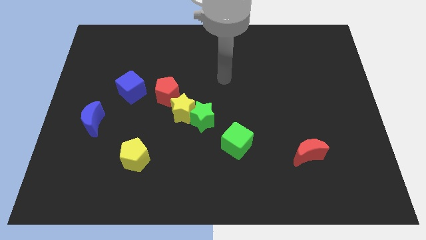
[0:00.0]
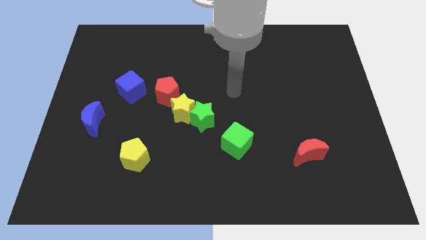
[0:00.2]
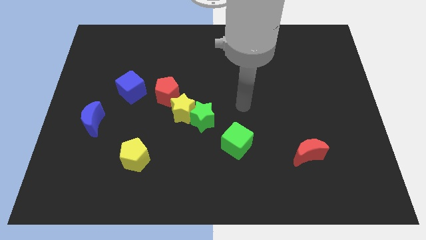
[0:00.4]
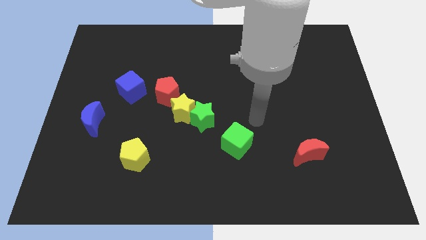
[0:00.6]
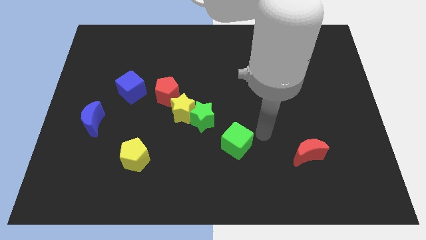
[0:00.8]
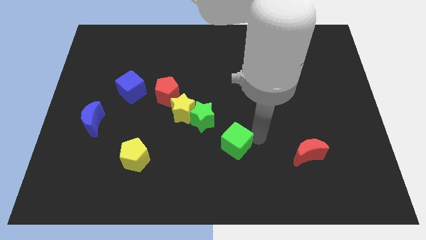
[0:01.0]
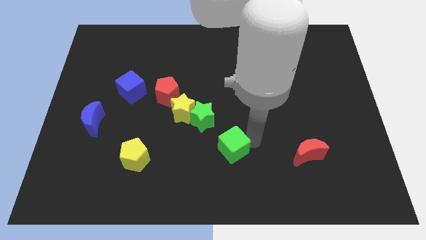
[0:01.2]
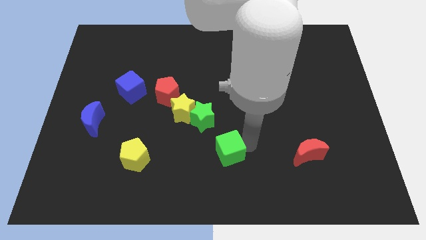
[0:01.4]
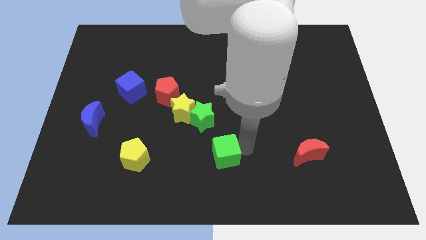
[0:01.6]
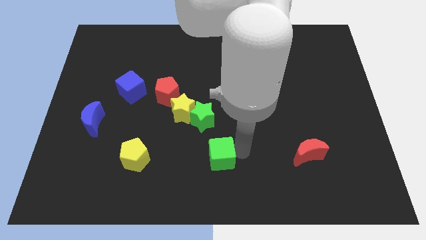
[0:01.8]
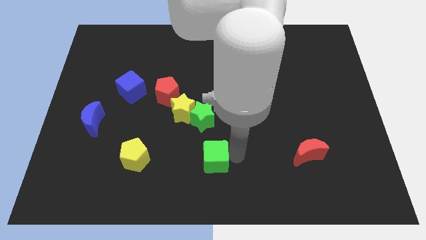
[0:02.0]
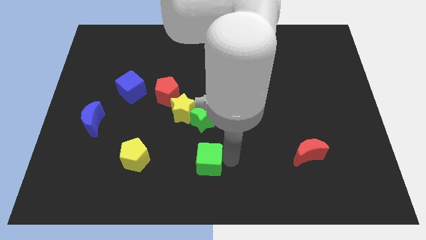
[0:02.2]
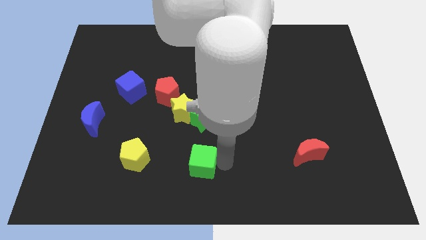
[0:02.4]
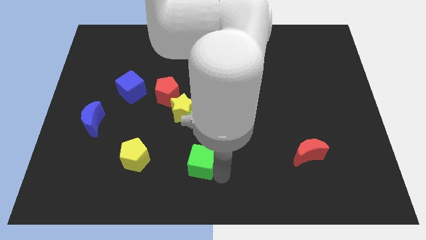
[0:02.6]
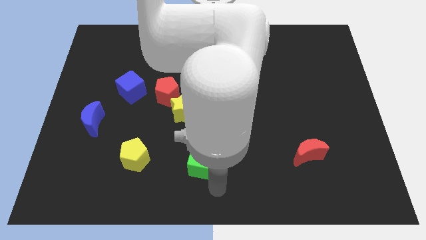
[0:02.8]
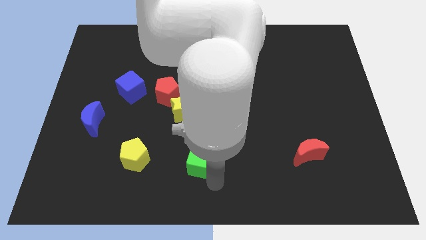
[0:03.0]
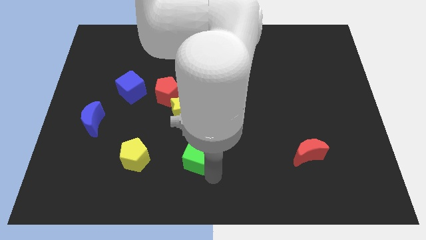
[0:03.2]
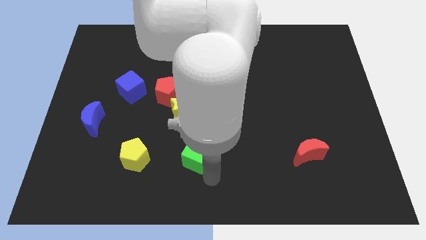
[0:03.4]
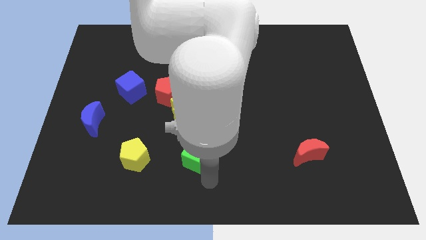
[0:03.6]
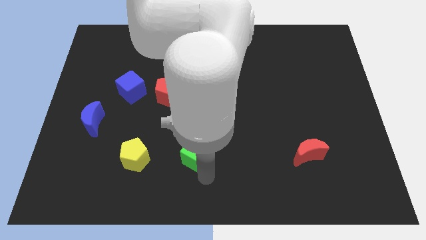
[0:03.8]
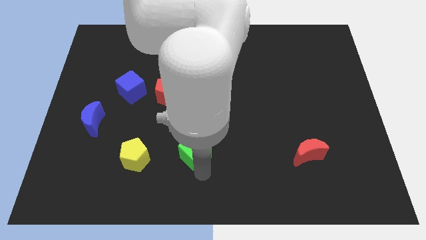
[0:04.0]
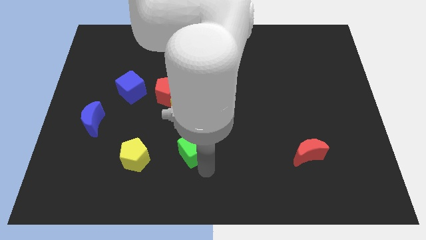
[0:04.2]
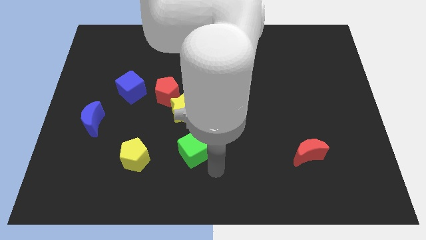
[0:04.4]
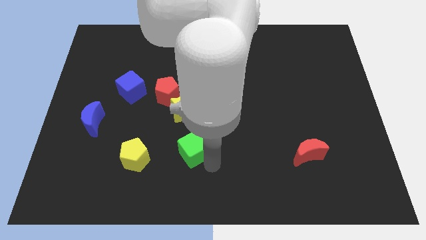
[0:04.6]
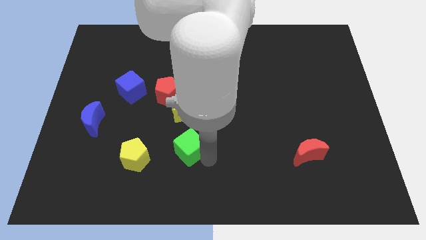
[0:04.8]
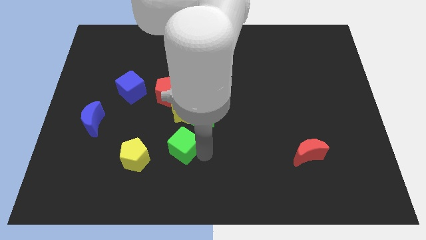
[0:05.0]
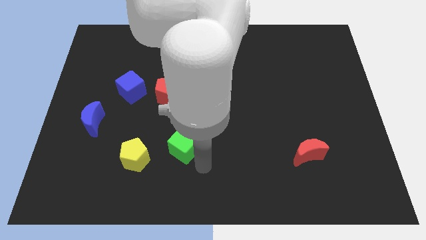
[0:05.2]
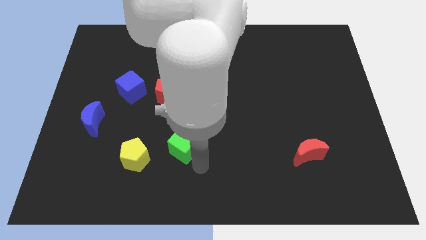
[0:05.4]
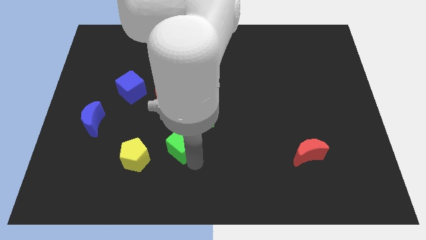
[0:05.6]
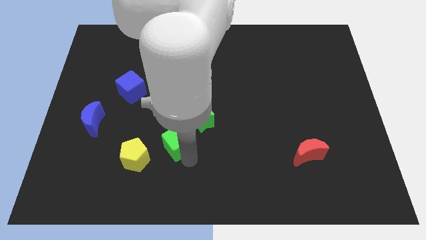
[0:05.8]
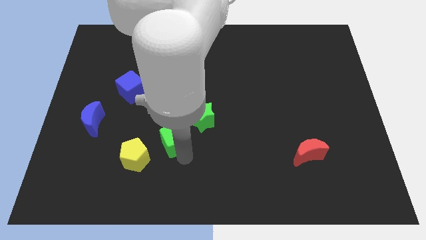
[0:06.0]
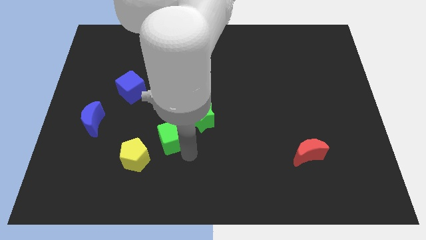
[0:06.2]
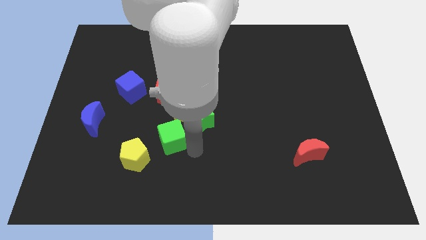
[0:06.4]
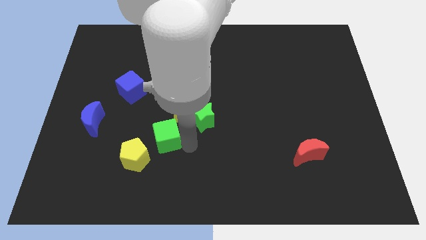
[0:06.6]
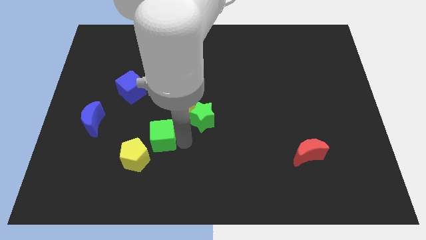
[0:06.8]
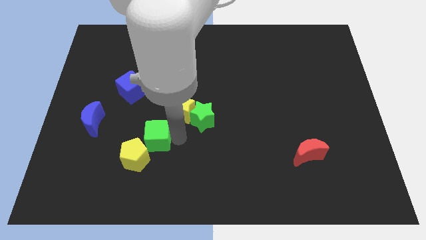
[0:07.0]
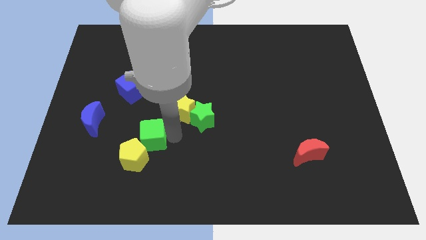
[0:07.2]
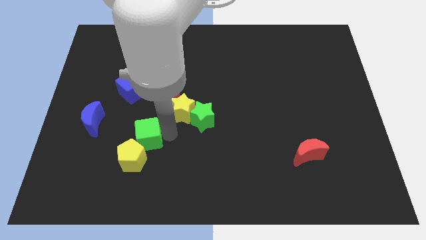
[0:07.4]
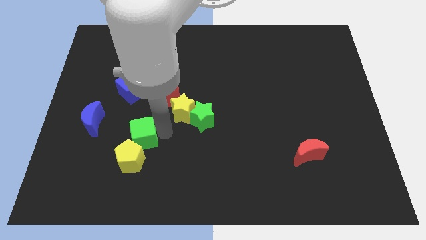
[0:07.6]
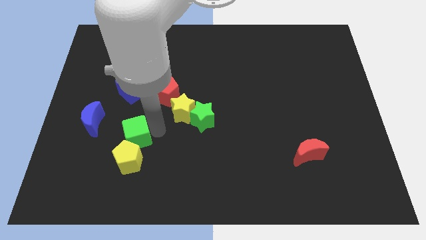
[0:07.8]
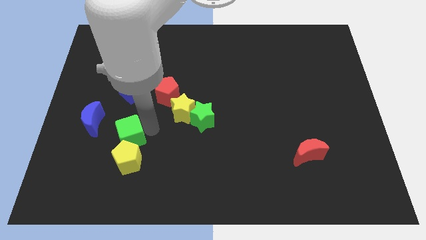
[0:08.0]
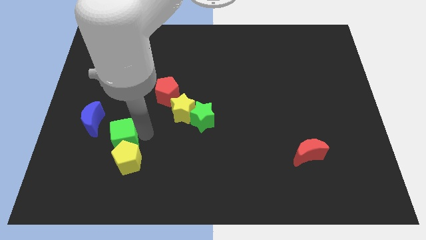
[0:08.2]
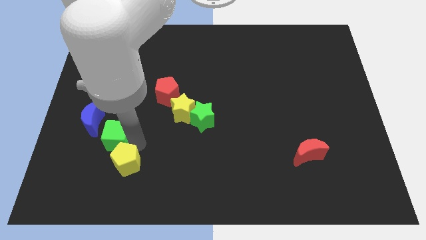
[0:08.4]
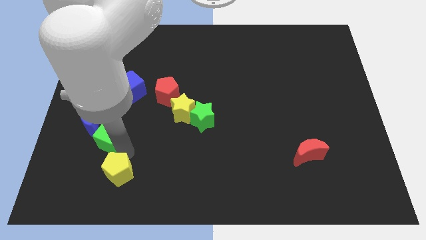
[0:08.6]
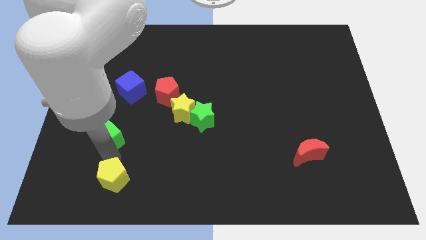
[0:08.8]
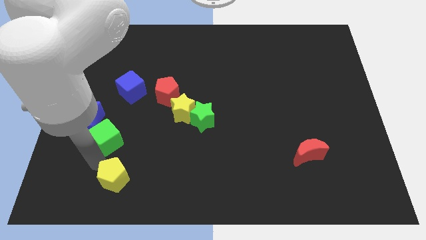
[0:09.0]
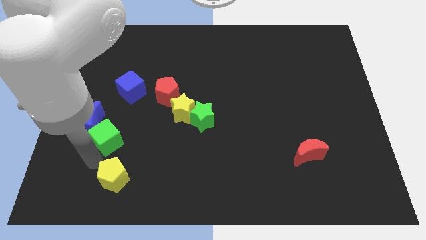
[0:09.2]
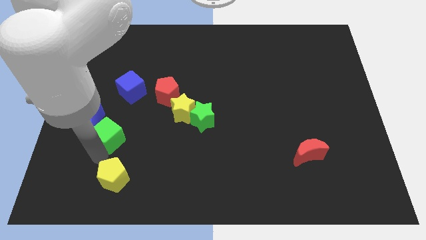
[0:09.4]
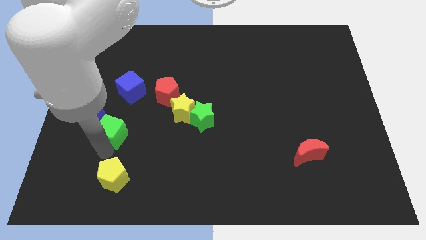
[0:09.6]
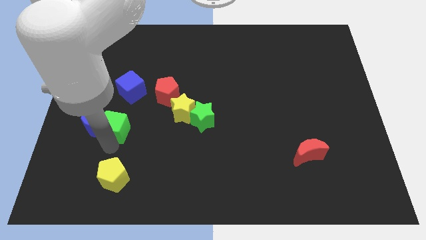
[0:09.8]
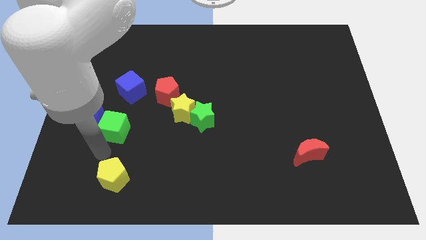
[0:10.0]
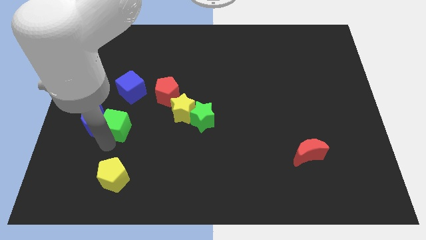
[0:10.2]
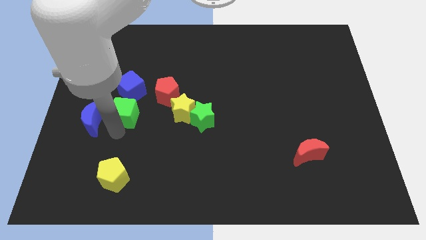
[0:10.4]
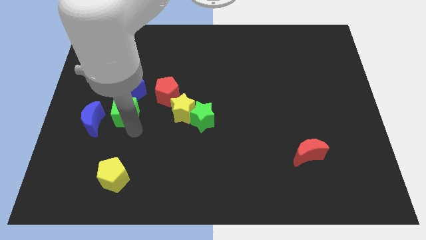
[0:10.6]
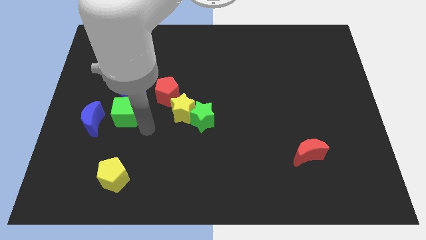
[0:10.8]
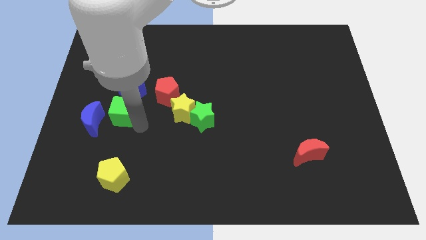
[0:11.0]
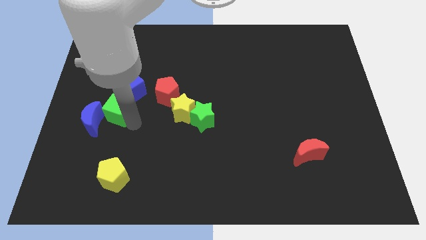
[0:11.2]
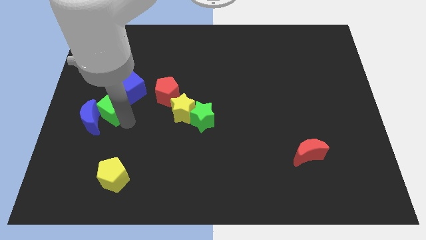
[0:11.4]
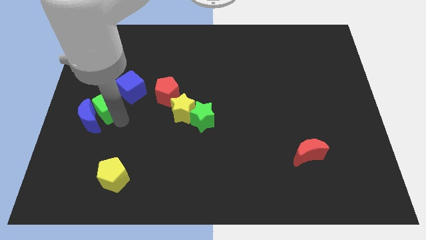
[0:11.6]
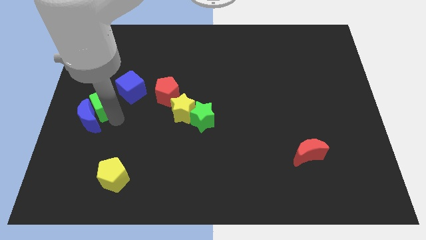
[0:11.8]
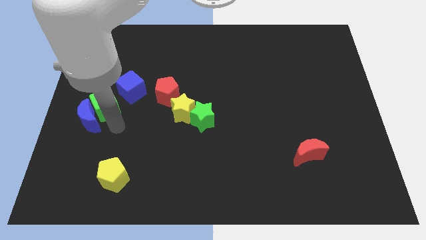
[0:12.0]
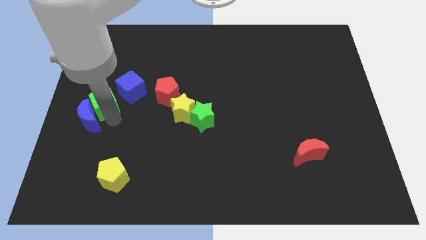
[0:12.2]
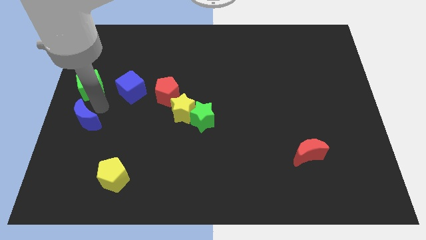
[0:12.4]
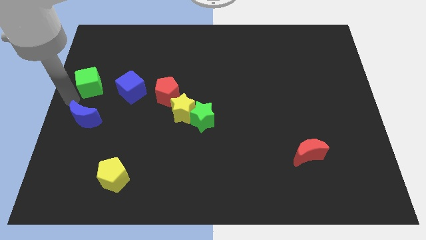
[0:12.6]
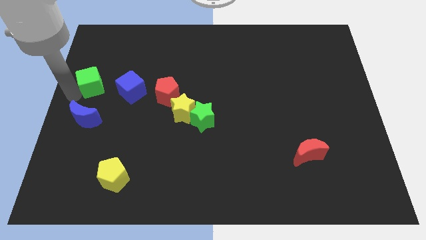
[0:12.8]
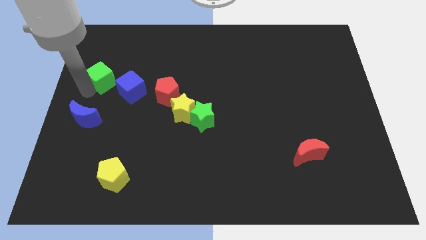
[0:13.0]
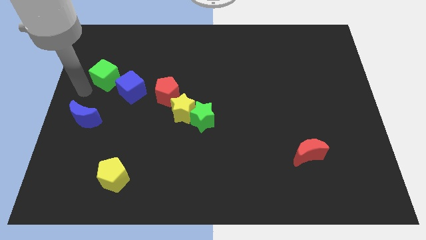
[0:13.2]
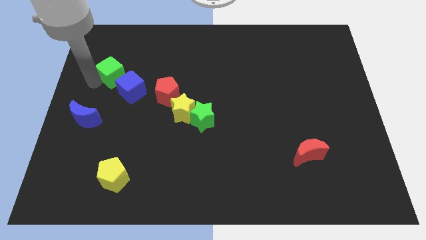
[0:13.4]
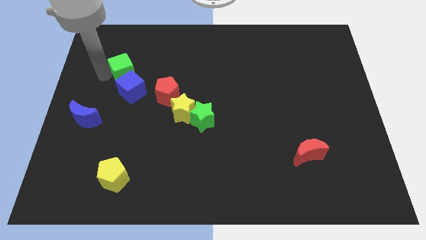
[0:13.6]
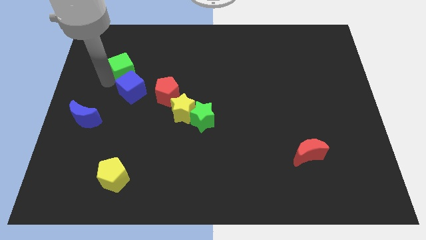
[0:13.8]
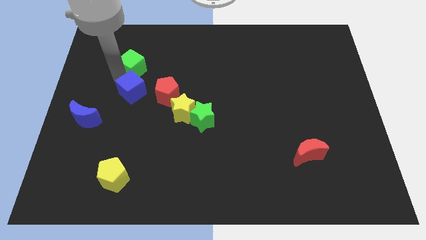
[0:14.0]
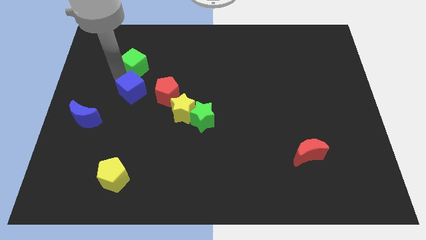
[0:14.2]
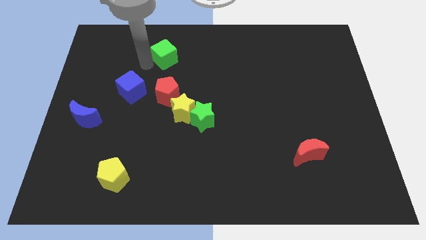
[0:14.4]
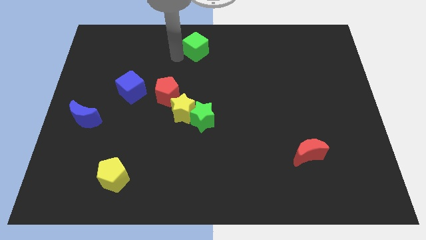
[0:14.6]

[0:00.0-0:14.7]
move the green cube to the top side
